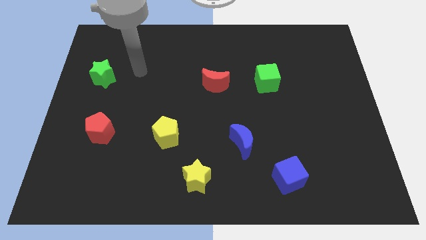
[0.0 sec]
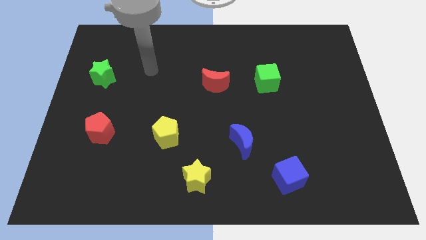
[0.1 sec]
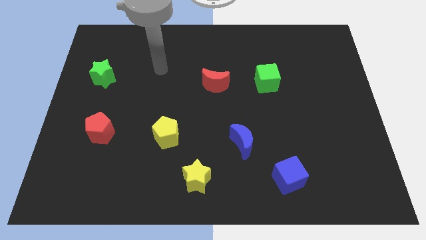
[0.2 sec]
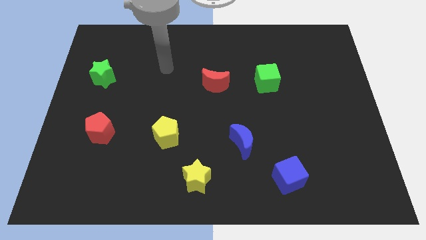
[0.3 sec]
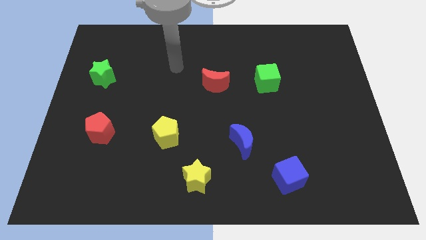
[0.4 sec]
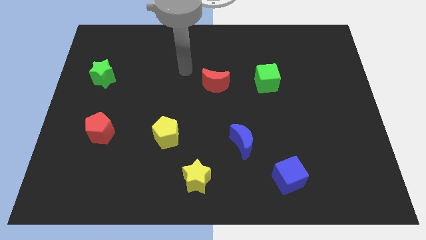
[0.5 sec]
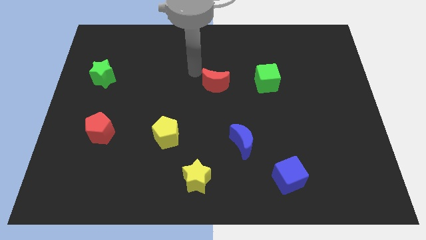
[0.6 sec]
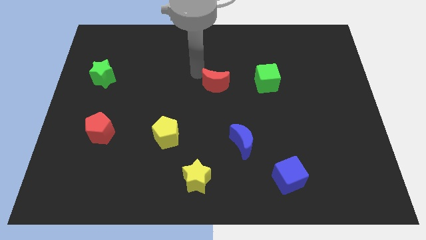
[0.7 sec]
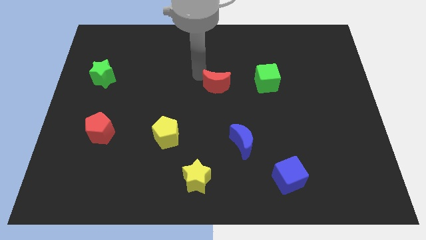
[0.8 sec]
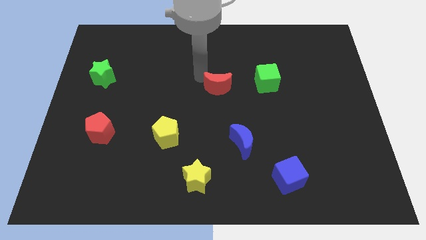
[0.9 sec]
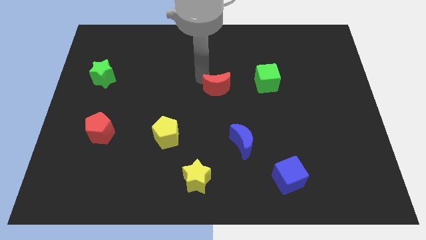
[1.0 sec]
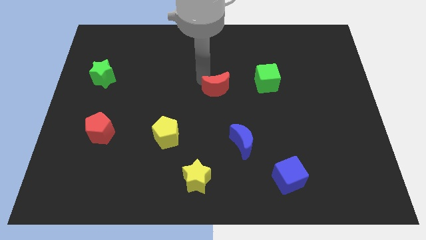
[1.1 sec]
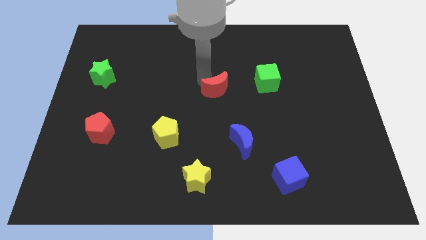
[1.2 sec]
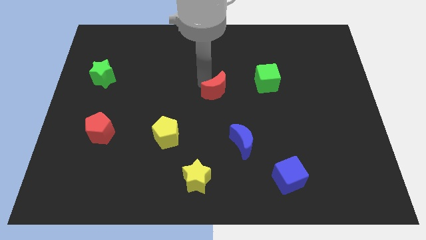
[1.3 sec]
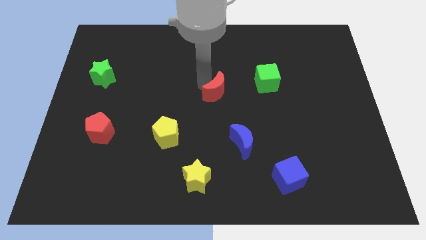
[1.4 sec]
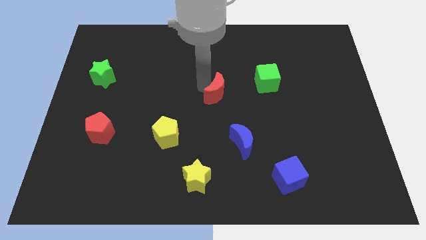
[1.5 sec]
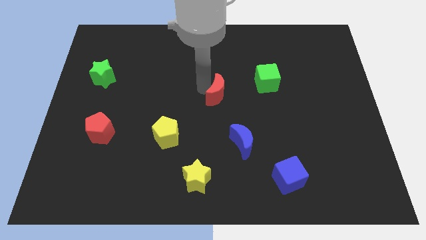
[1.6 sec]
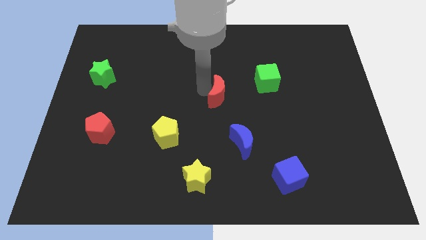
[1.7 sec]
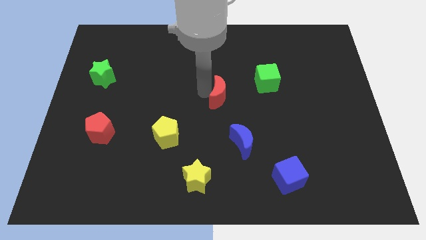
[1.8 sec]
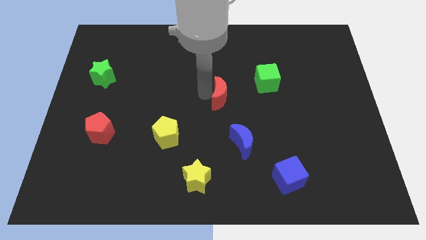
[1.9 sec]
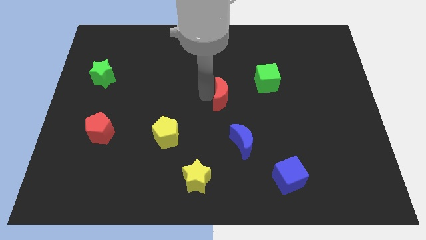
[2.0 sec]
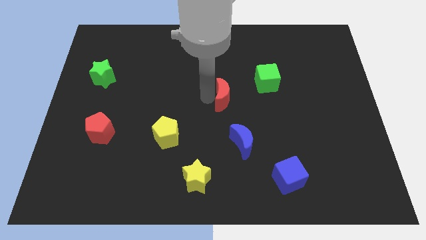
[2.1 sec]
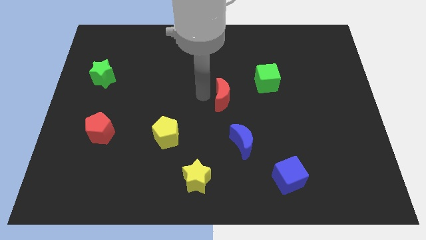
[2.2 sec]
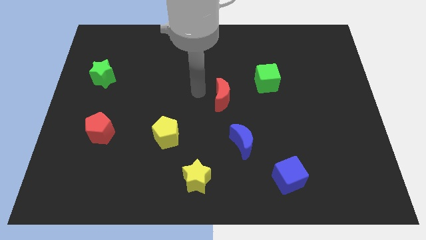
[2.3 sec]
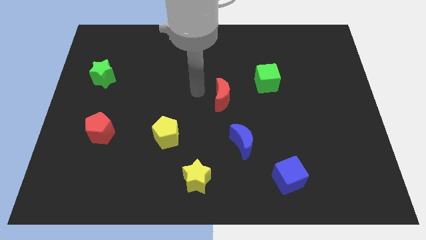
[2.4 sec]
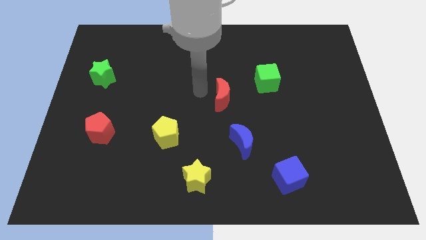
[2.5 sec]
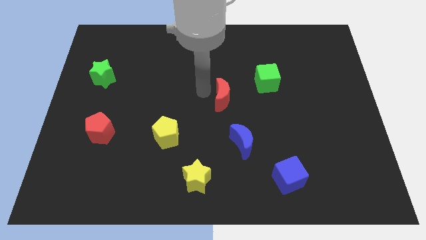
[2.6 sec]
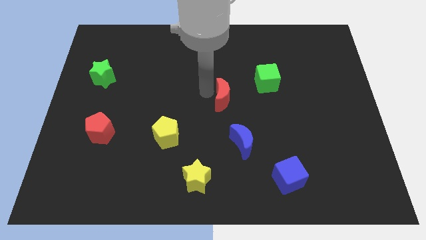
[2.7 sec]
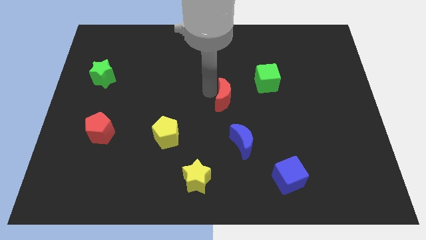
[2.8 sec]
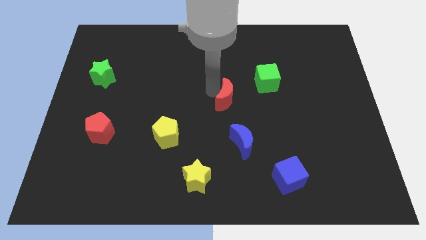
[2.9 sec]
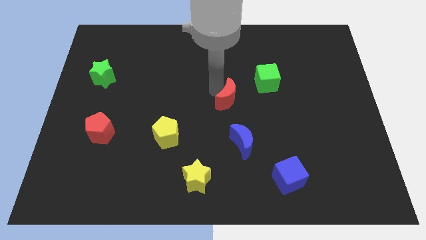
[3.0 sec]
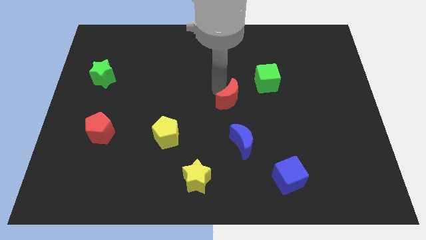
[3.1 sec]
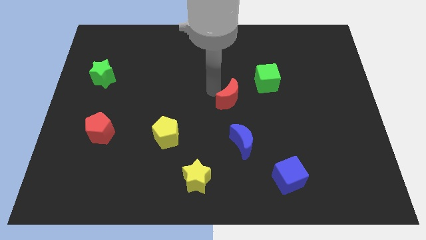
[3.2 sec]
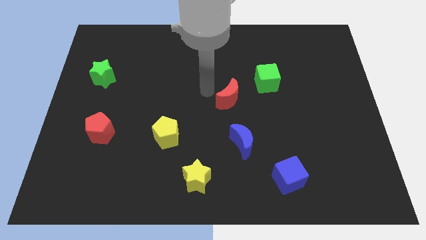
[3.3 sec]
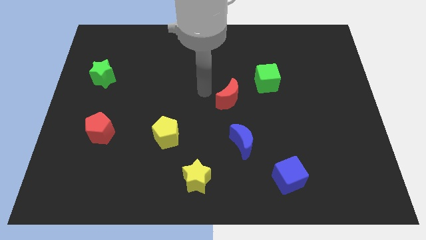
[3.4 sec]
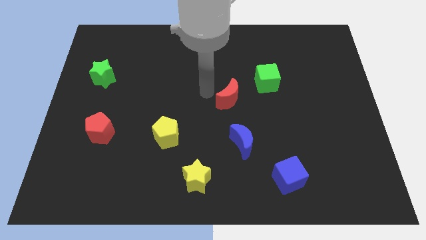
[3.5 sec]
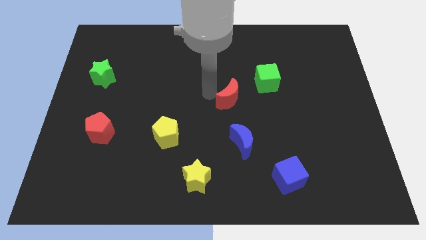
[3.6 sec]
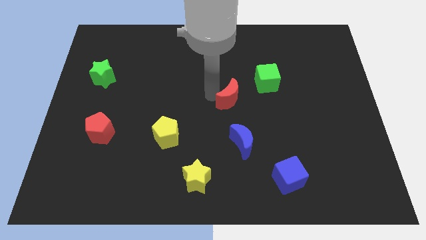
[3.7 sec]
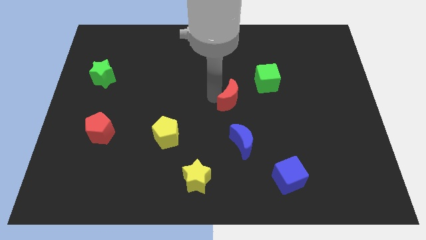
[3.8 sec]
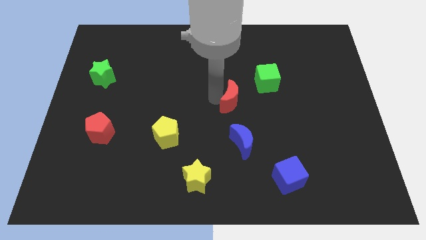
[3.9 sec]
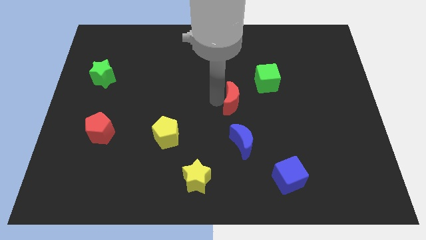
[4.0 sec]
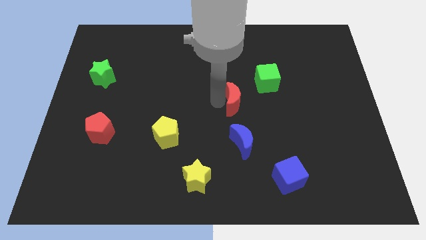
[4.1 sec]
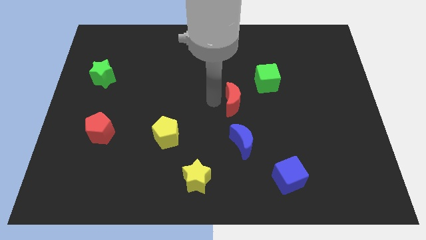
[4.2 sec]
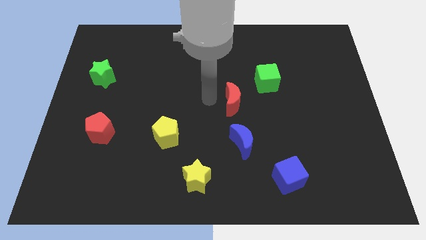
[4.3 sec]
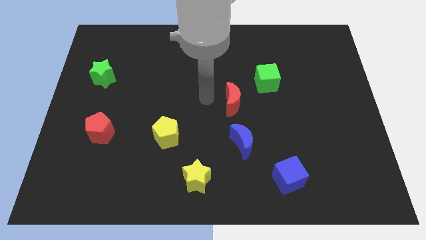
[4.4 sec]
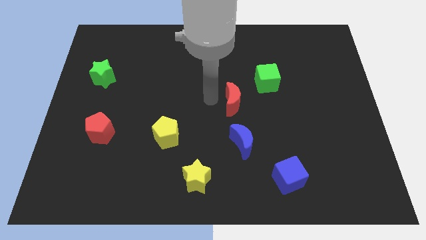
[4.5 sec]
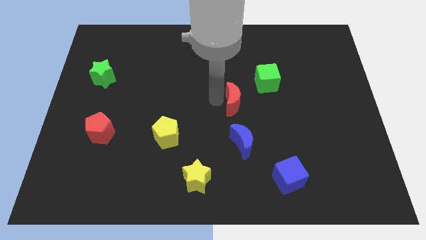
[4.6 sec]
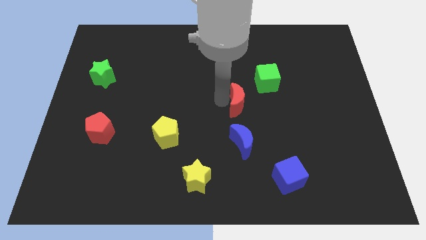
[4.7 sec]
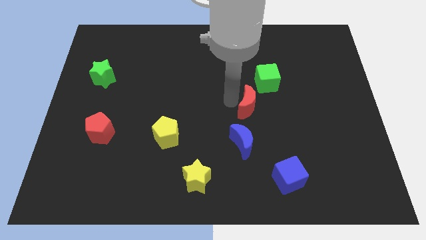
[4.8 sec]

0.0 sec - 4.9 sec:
slide the red moon to the bottom side of the green cube

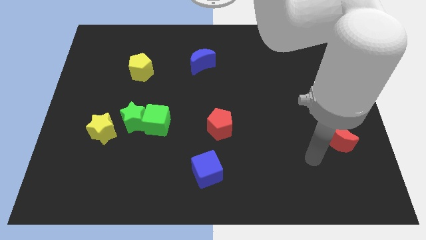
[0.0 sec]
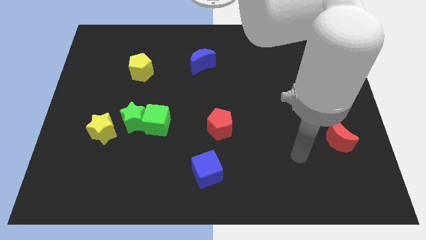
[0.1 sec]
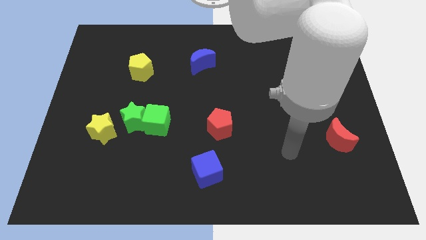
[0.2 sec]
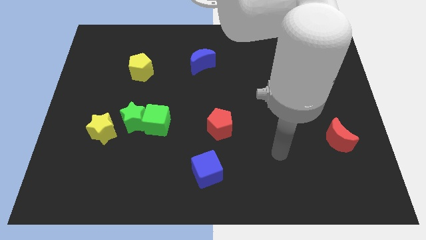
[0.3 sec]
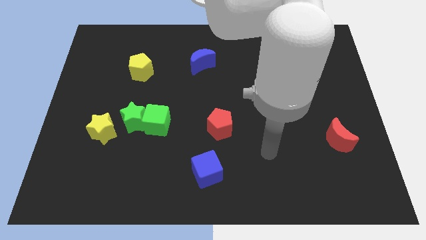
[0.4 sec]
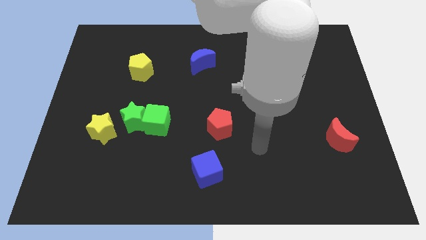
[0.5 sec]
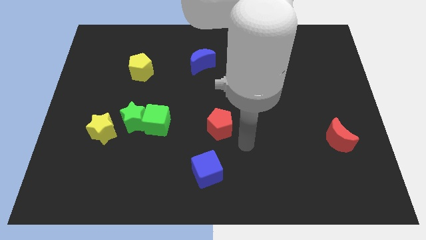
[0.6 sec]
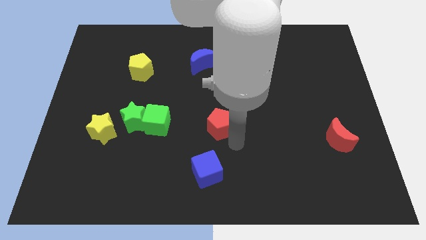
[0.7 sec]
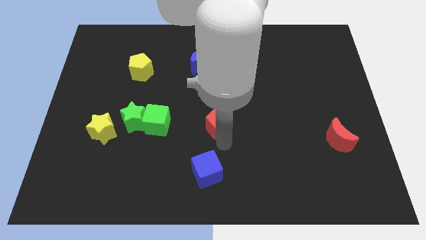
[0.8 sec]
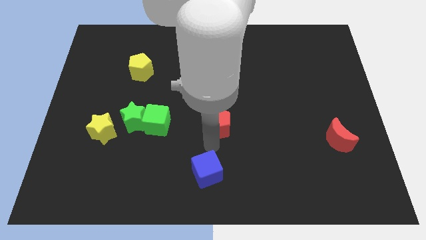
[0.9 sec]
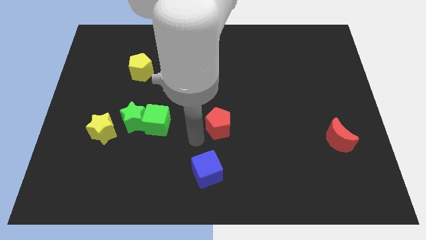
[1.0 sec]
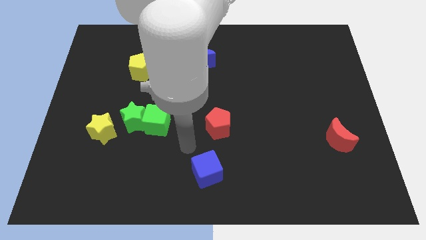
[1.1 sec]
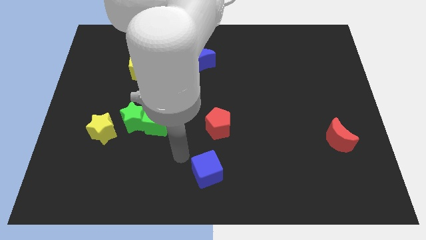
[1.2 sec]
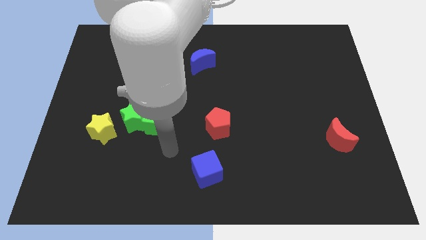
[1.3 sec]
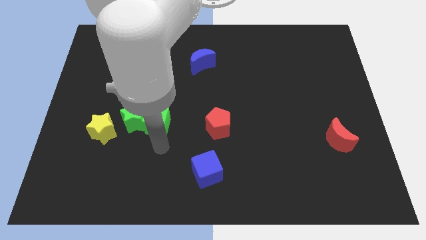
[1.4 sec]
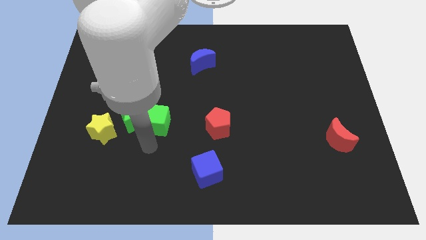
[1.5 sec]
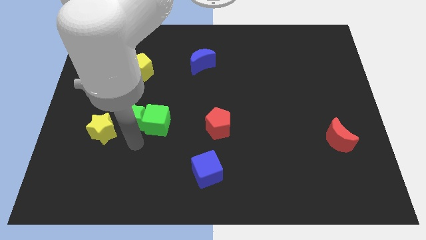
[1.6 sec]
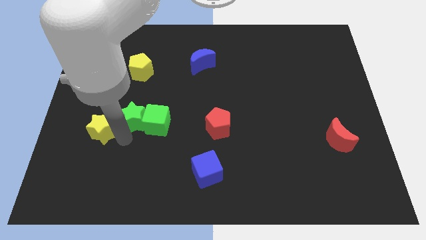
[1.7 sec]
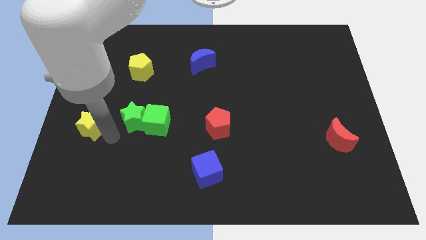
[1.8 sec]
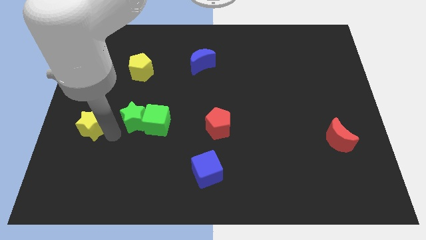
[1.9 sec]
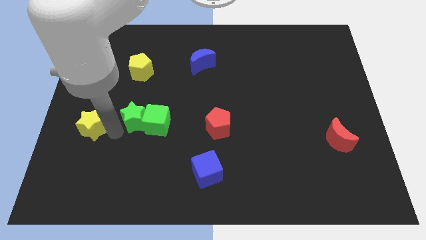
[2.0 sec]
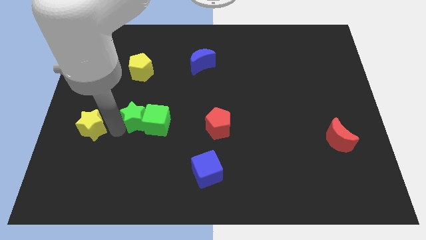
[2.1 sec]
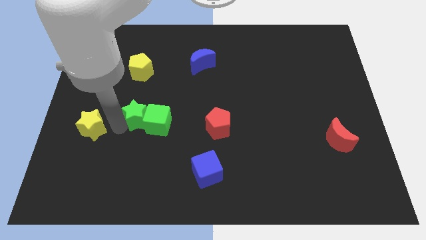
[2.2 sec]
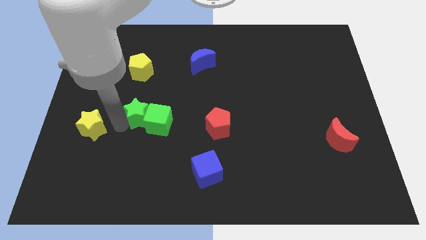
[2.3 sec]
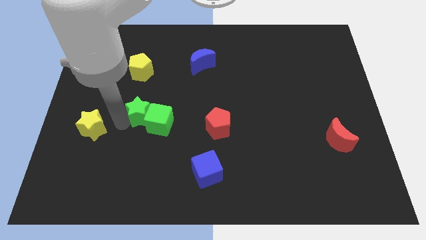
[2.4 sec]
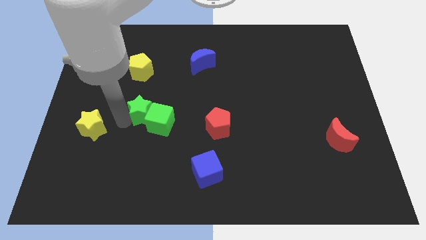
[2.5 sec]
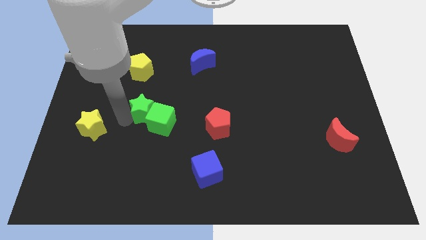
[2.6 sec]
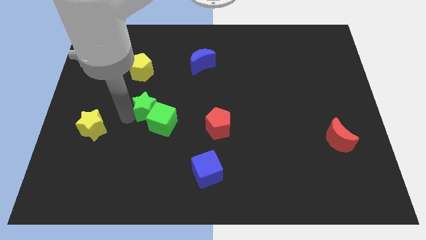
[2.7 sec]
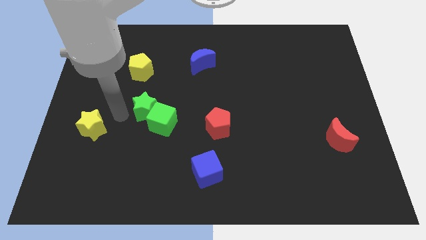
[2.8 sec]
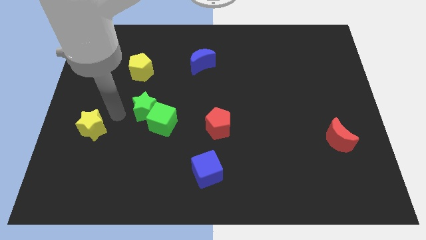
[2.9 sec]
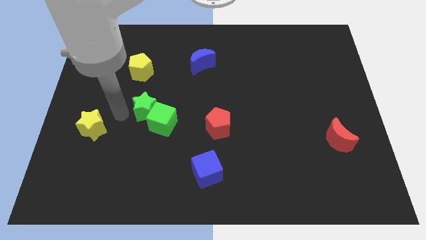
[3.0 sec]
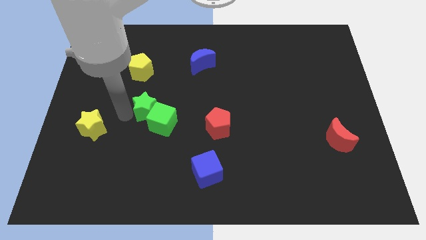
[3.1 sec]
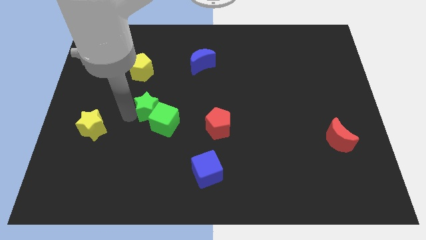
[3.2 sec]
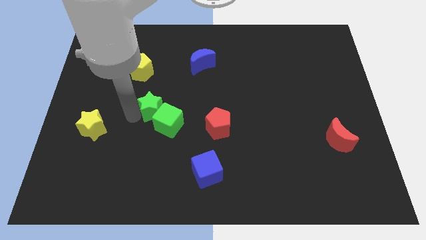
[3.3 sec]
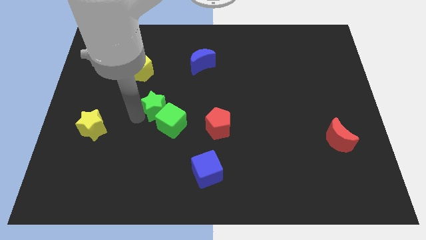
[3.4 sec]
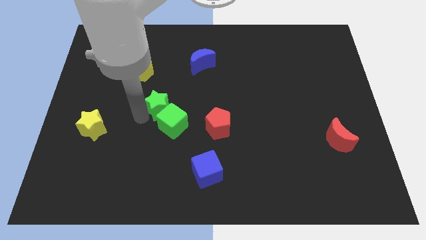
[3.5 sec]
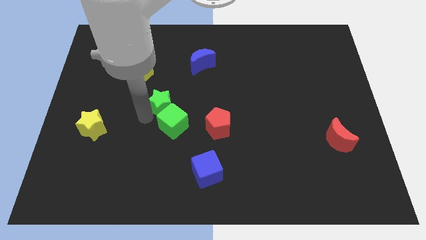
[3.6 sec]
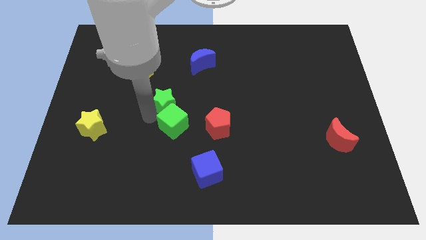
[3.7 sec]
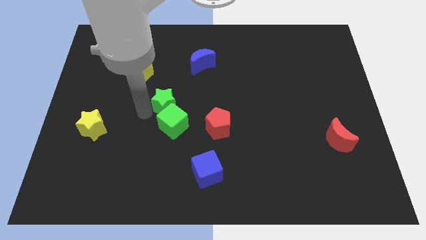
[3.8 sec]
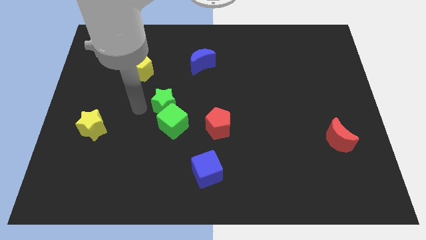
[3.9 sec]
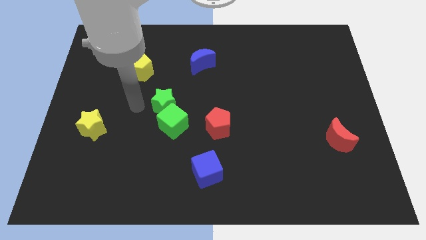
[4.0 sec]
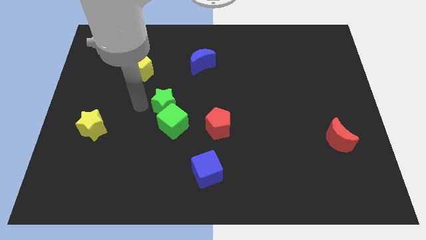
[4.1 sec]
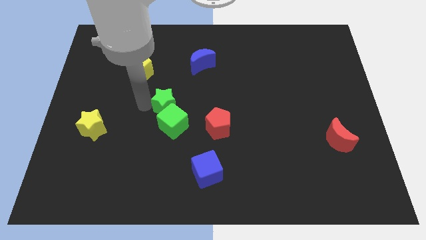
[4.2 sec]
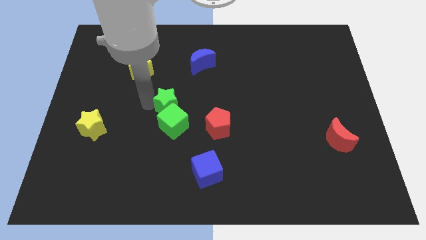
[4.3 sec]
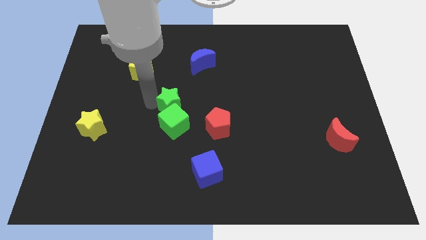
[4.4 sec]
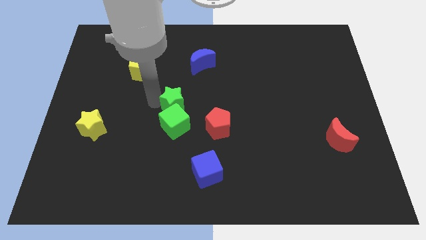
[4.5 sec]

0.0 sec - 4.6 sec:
put the green star diagonally up and to the right of the green cube
